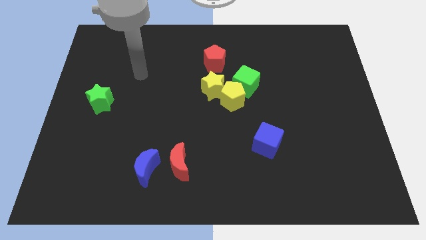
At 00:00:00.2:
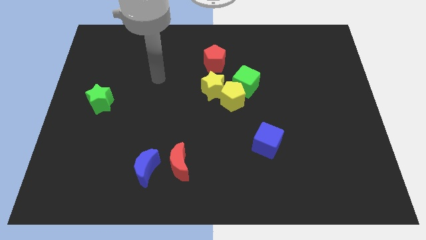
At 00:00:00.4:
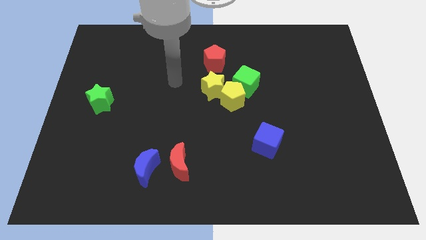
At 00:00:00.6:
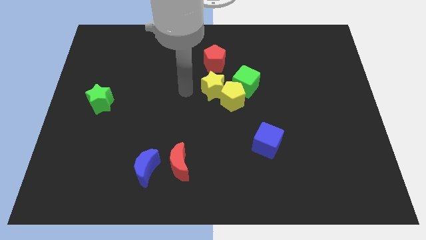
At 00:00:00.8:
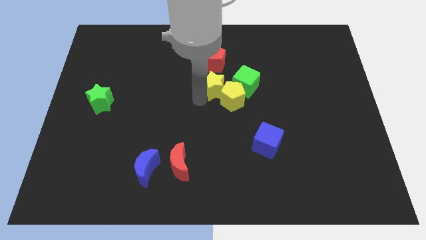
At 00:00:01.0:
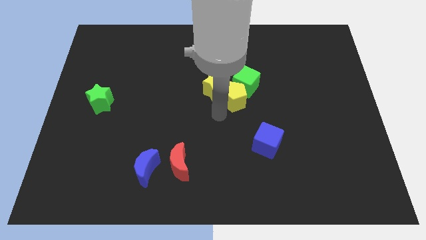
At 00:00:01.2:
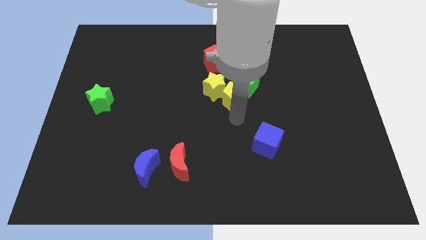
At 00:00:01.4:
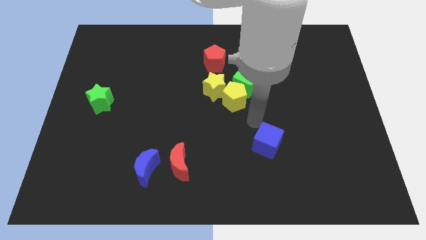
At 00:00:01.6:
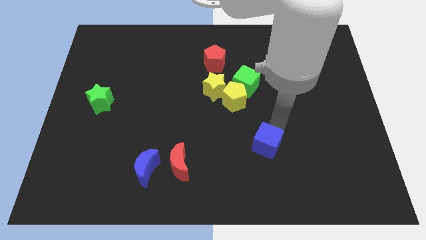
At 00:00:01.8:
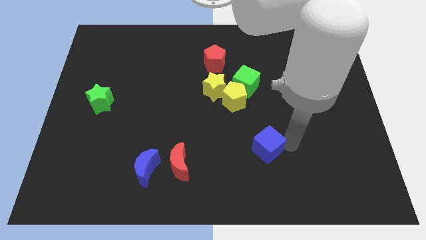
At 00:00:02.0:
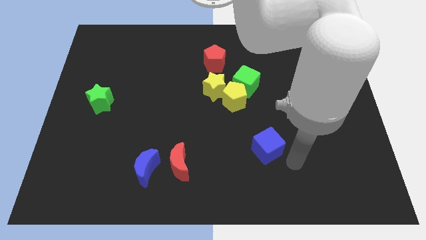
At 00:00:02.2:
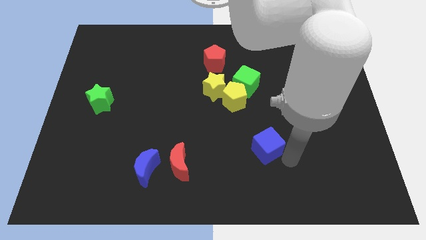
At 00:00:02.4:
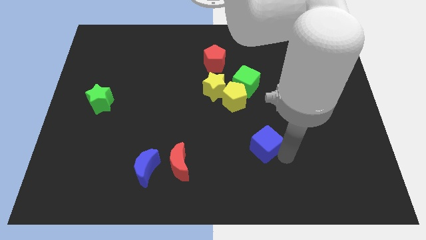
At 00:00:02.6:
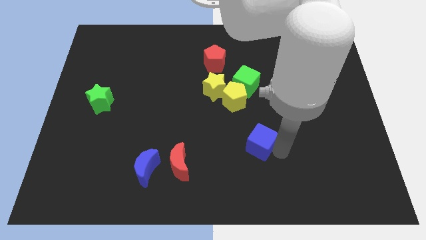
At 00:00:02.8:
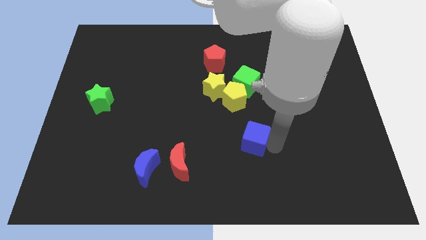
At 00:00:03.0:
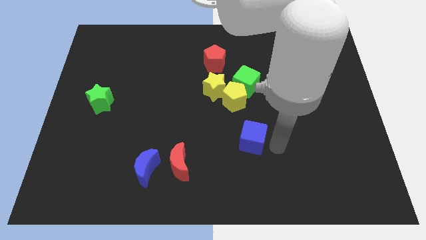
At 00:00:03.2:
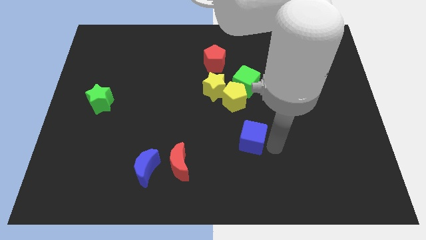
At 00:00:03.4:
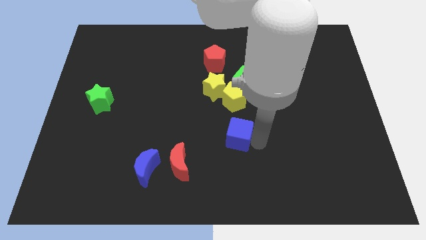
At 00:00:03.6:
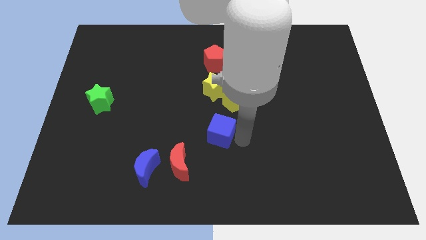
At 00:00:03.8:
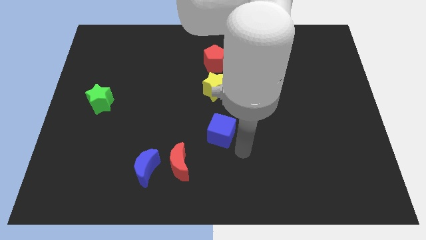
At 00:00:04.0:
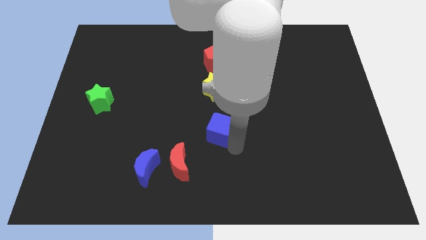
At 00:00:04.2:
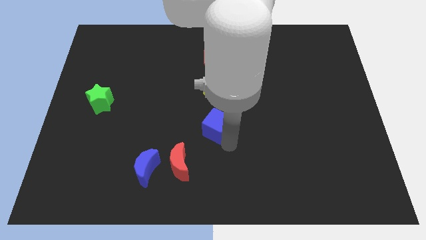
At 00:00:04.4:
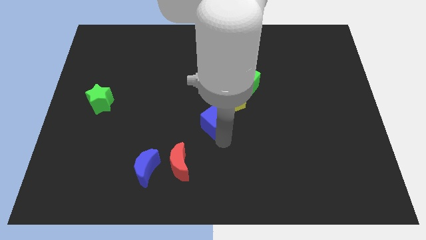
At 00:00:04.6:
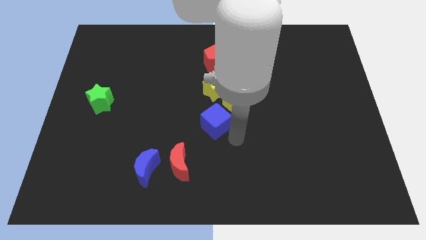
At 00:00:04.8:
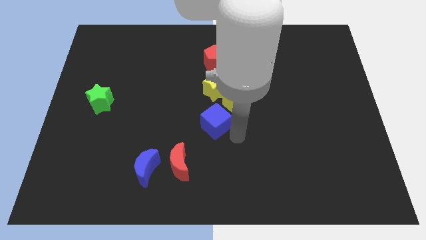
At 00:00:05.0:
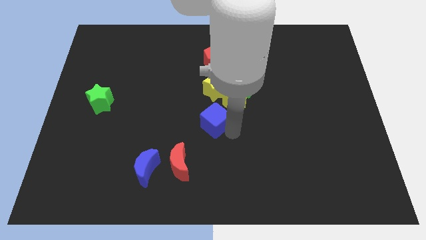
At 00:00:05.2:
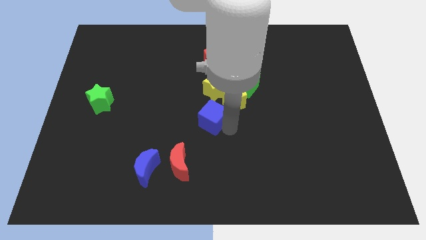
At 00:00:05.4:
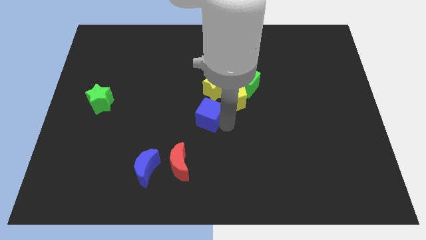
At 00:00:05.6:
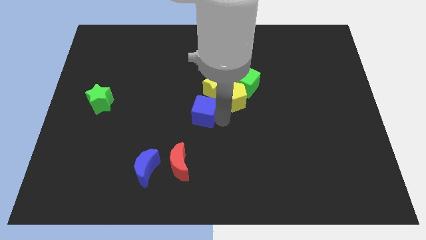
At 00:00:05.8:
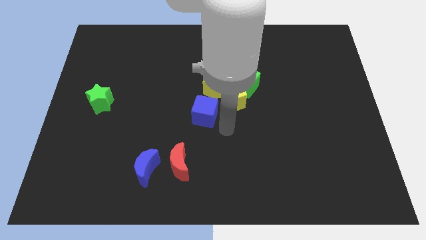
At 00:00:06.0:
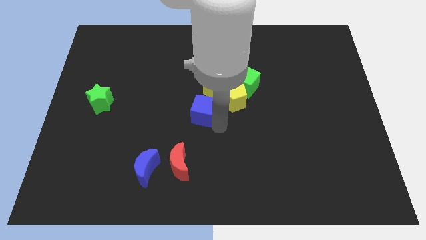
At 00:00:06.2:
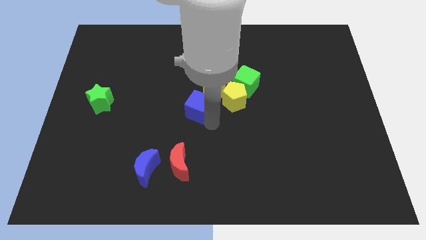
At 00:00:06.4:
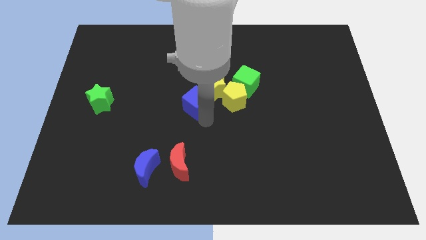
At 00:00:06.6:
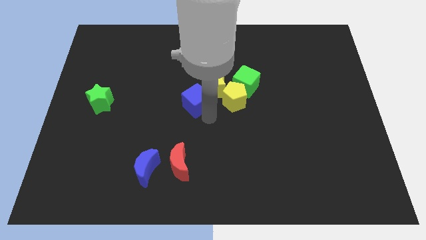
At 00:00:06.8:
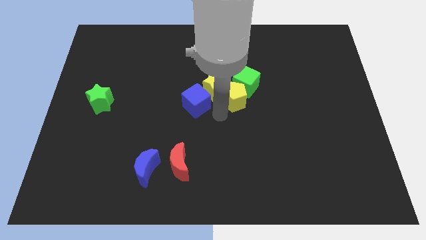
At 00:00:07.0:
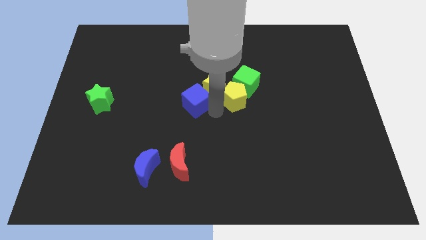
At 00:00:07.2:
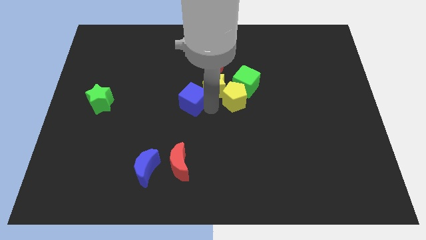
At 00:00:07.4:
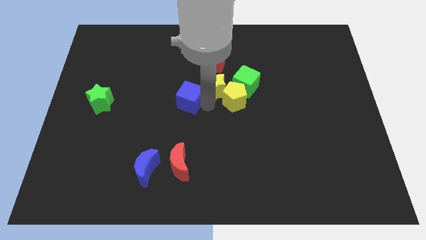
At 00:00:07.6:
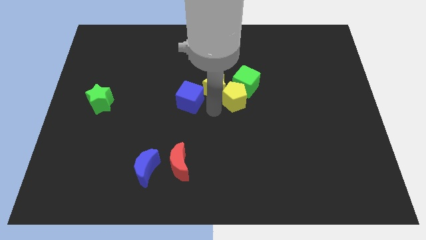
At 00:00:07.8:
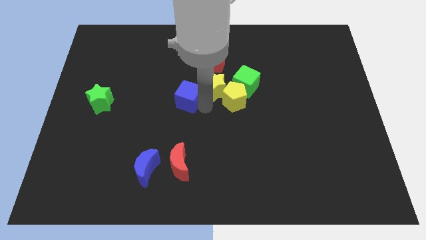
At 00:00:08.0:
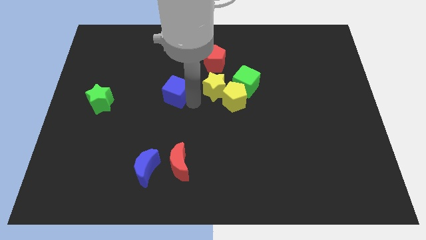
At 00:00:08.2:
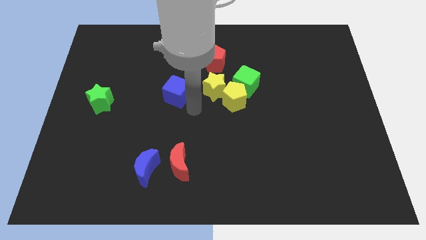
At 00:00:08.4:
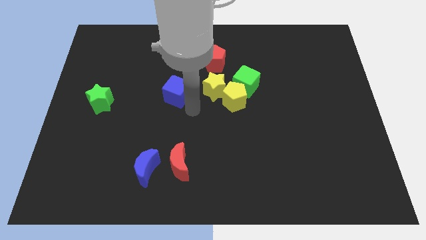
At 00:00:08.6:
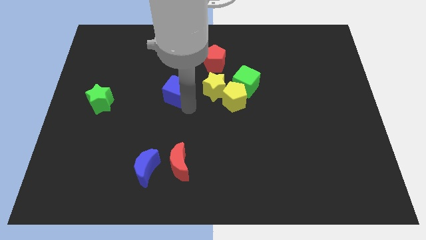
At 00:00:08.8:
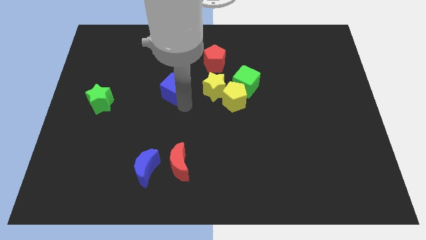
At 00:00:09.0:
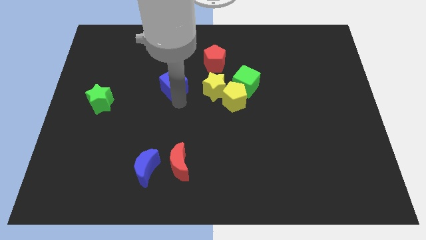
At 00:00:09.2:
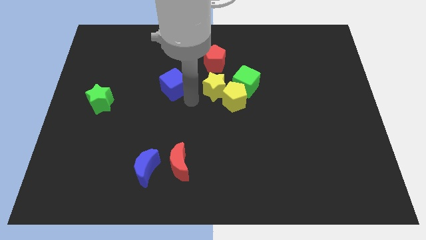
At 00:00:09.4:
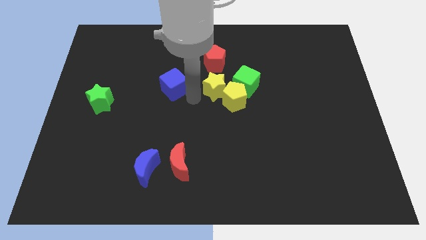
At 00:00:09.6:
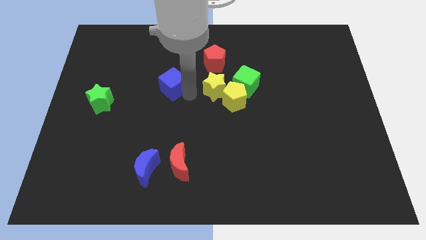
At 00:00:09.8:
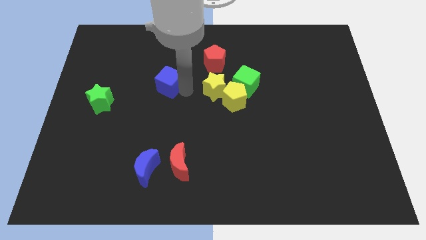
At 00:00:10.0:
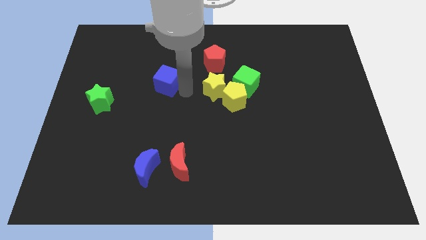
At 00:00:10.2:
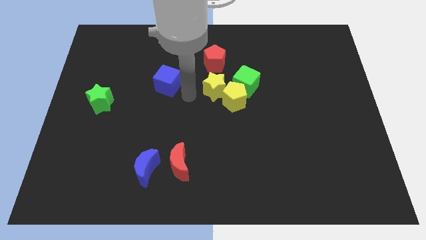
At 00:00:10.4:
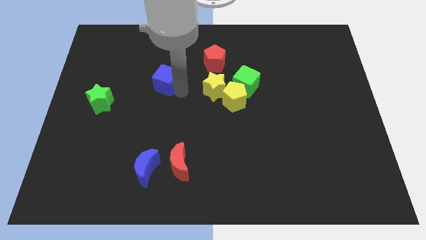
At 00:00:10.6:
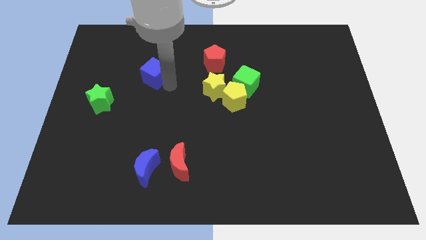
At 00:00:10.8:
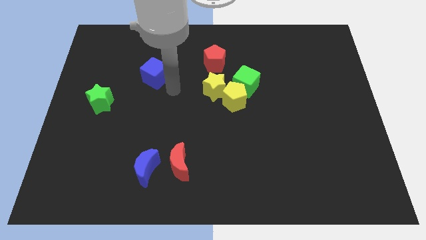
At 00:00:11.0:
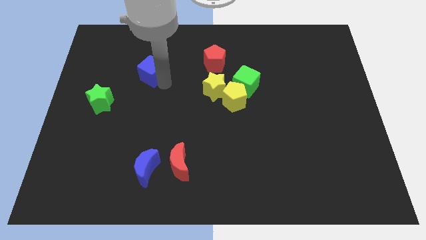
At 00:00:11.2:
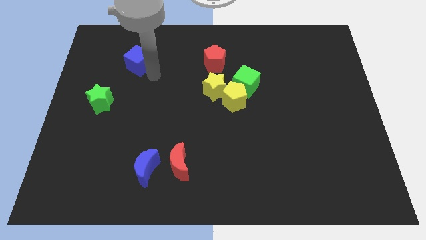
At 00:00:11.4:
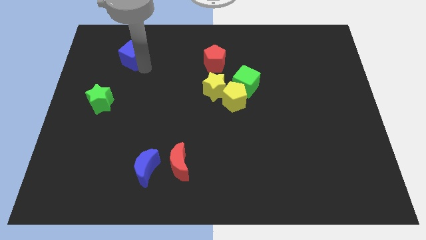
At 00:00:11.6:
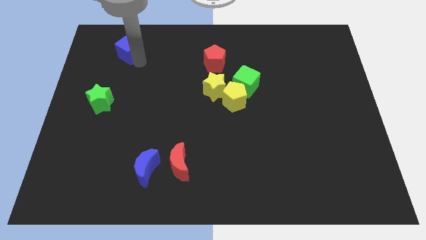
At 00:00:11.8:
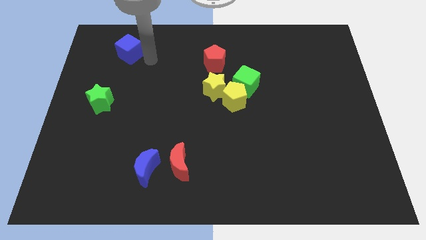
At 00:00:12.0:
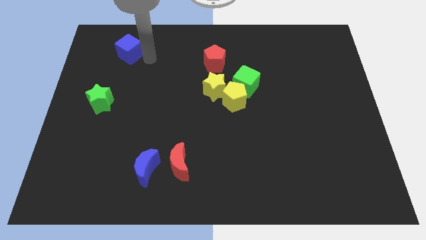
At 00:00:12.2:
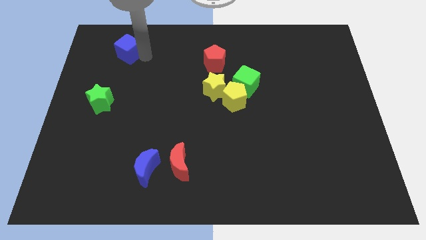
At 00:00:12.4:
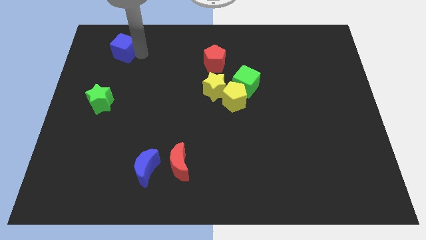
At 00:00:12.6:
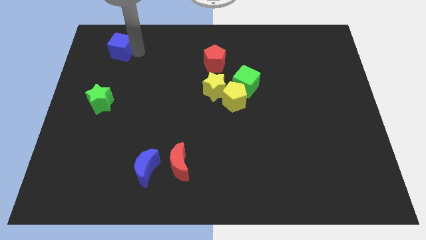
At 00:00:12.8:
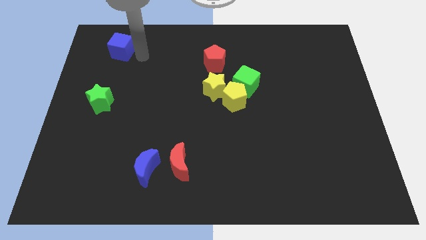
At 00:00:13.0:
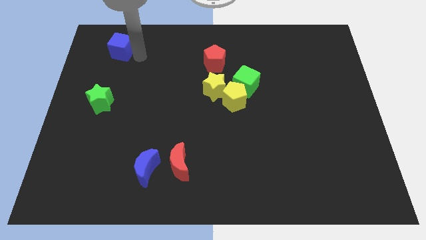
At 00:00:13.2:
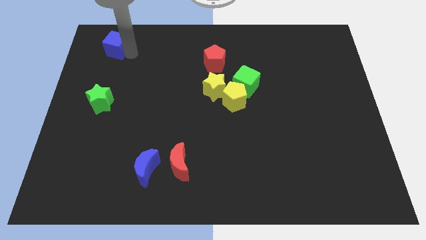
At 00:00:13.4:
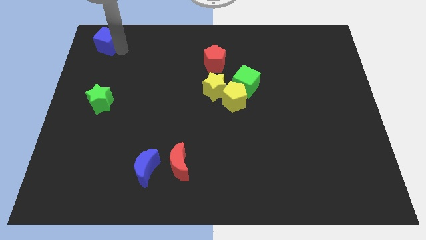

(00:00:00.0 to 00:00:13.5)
push the blue cube to the top left
